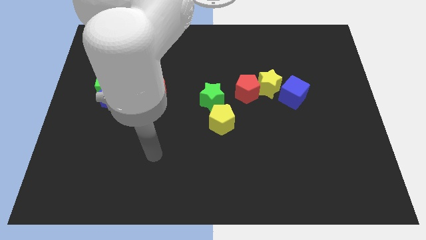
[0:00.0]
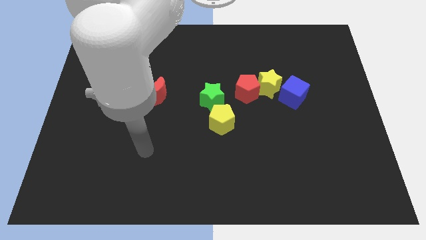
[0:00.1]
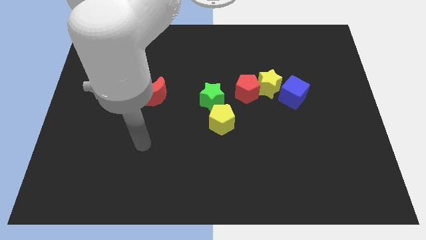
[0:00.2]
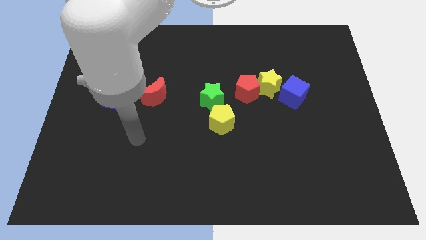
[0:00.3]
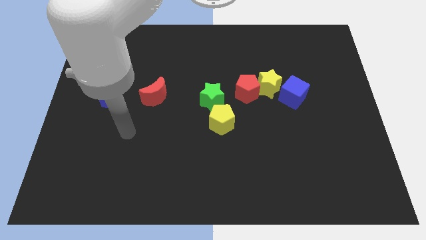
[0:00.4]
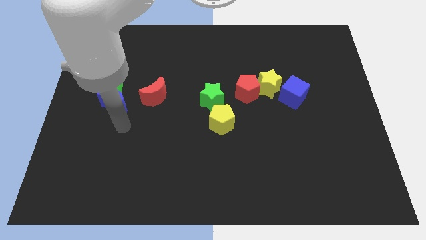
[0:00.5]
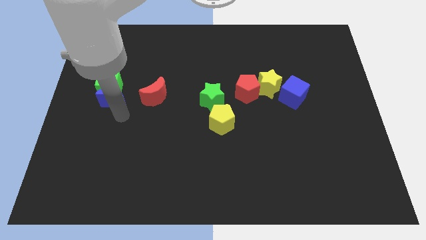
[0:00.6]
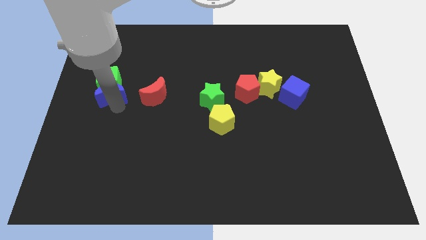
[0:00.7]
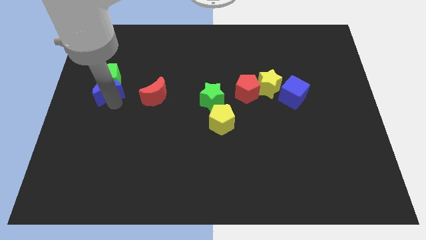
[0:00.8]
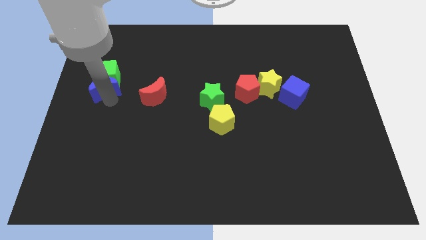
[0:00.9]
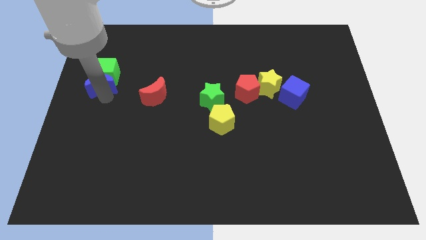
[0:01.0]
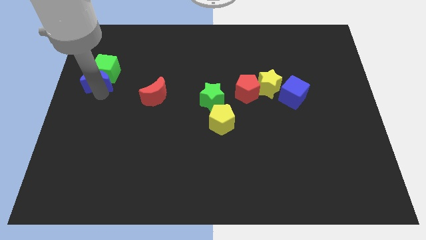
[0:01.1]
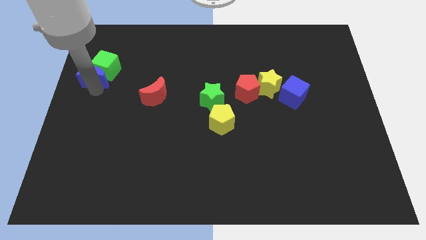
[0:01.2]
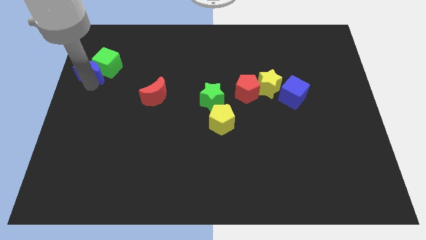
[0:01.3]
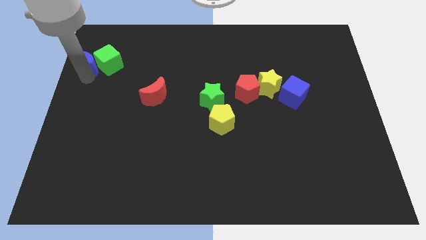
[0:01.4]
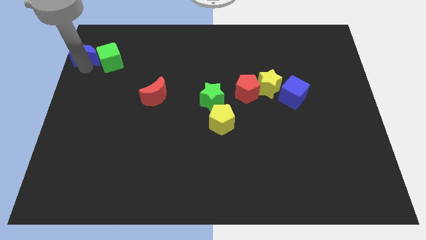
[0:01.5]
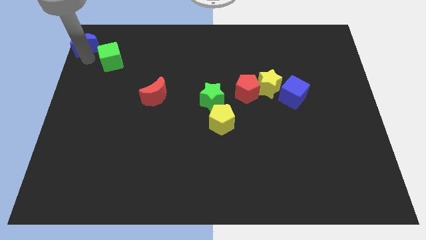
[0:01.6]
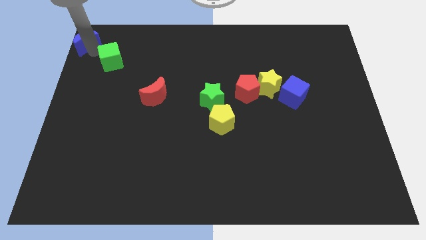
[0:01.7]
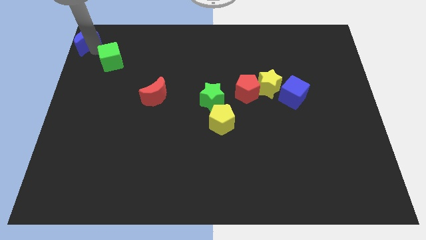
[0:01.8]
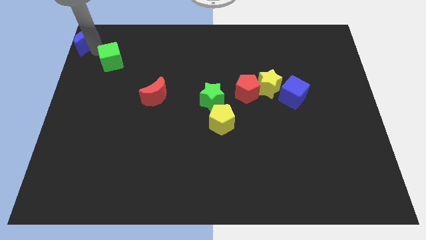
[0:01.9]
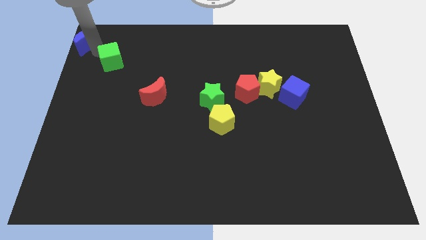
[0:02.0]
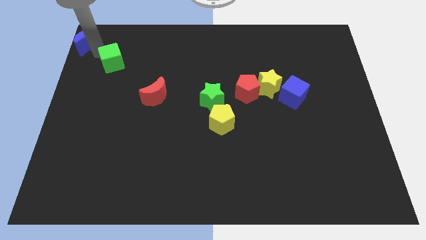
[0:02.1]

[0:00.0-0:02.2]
move the green cube away from the blue moon

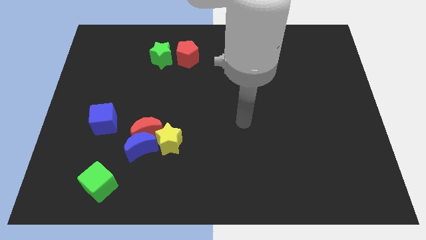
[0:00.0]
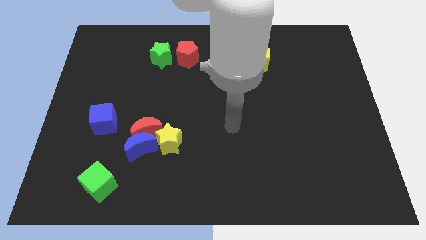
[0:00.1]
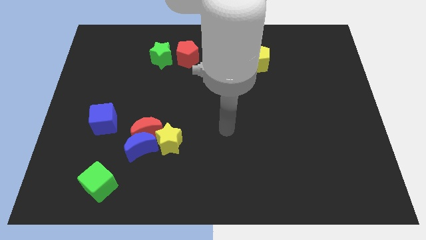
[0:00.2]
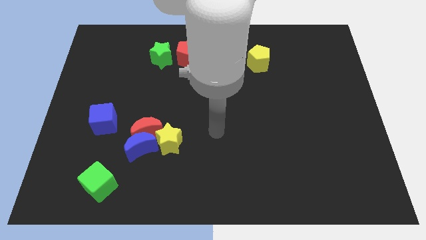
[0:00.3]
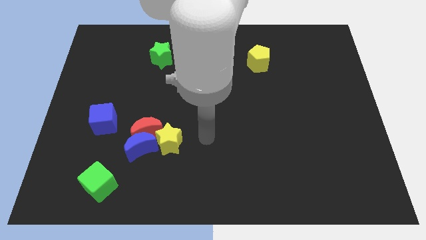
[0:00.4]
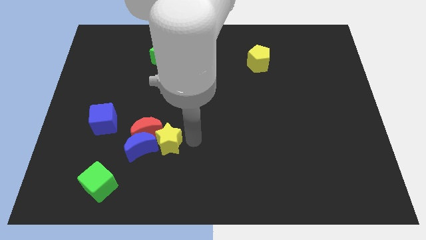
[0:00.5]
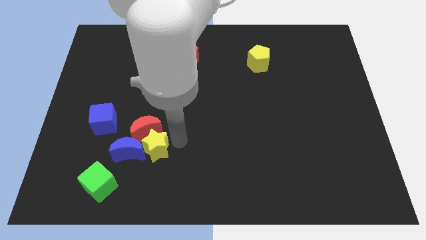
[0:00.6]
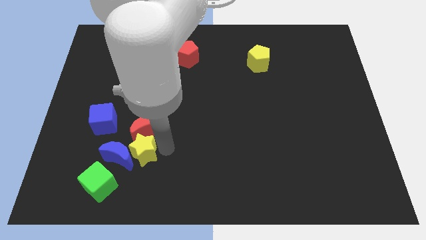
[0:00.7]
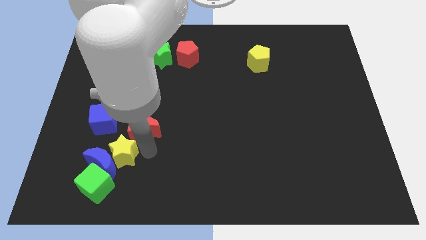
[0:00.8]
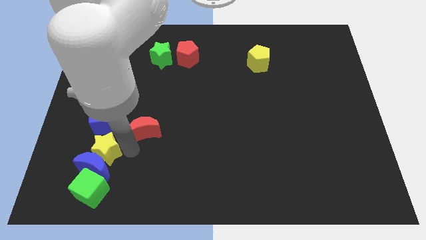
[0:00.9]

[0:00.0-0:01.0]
pull the red moon apart from the blue moon and yellow star

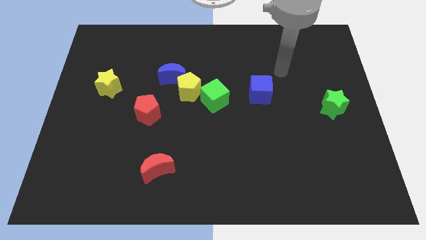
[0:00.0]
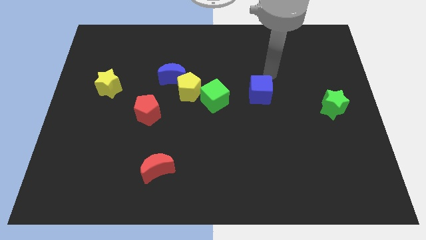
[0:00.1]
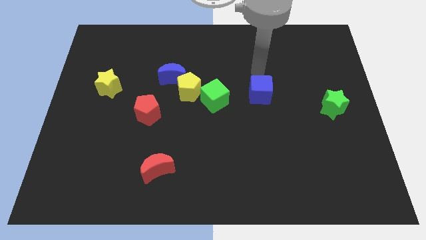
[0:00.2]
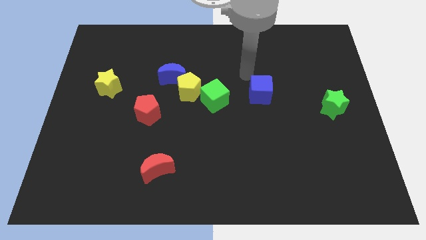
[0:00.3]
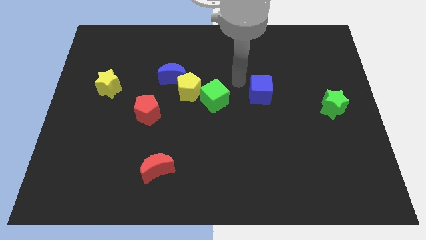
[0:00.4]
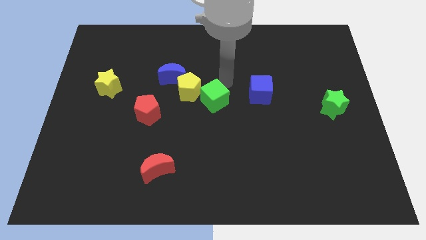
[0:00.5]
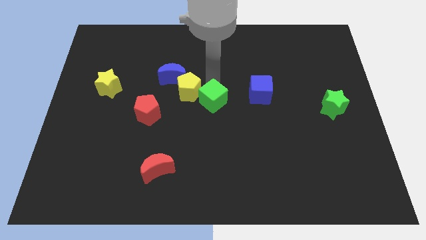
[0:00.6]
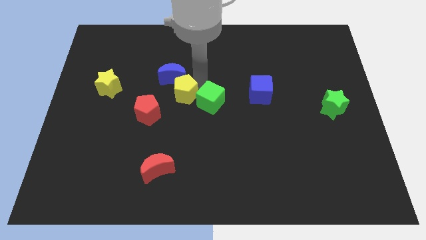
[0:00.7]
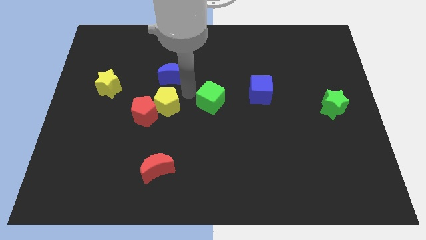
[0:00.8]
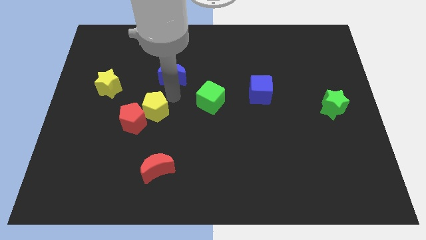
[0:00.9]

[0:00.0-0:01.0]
move the blue moon away from the yellow pentagon

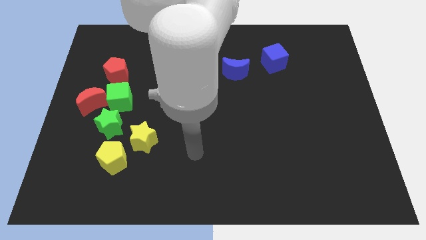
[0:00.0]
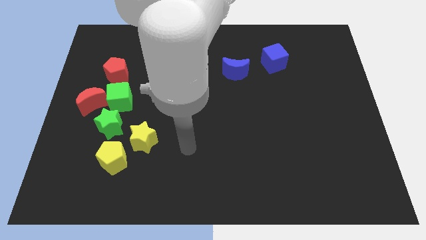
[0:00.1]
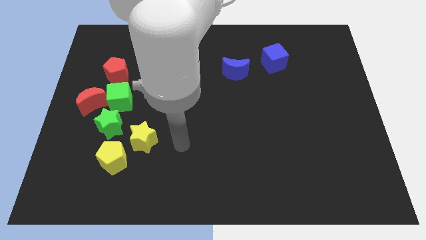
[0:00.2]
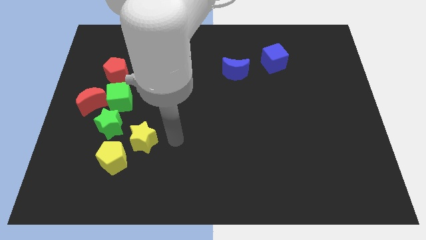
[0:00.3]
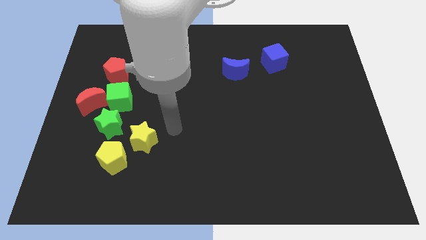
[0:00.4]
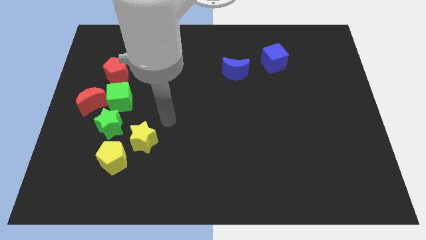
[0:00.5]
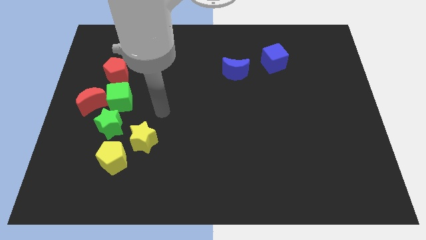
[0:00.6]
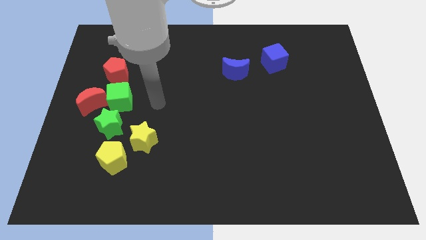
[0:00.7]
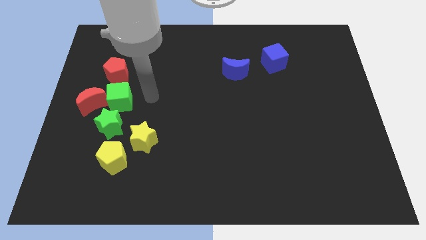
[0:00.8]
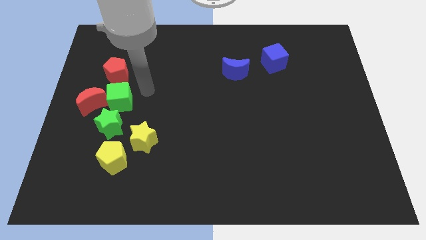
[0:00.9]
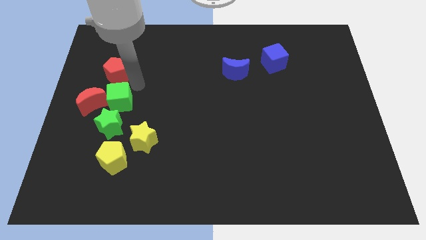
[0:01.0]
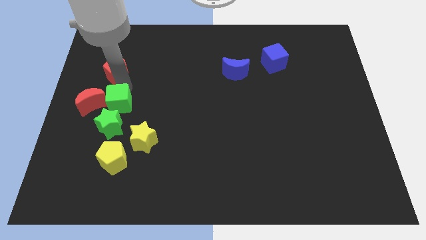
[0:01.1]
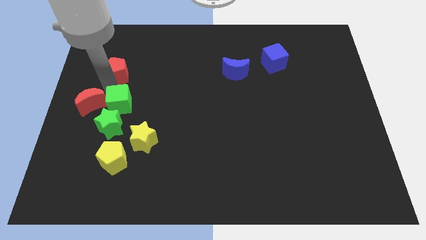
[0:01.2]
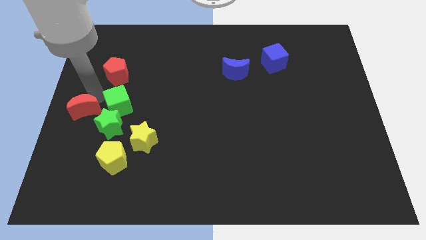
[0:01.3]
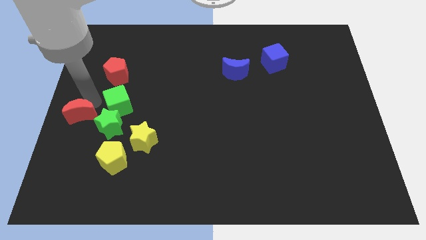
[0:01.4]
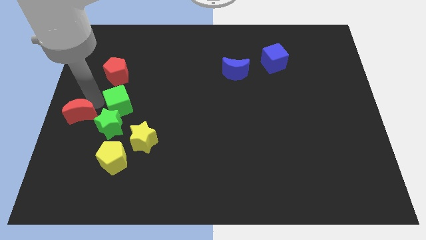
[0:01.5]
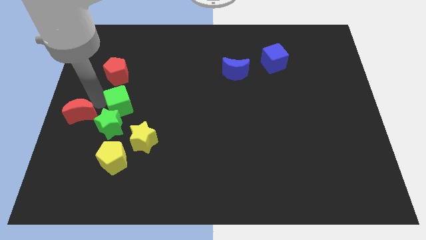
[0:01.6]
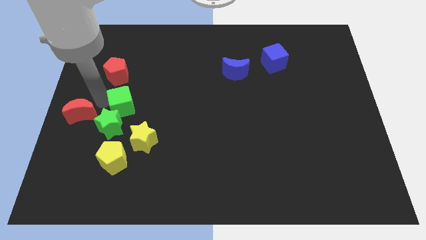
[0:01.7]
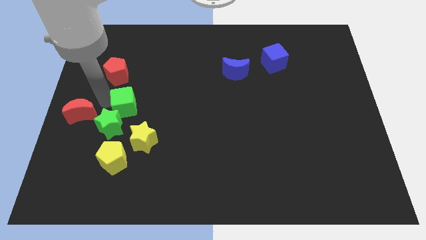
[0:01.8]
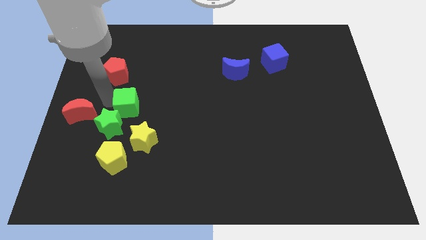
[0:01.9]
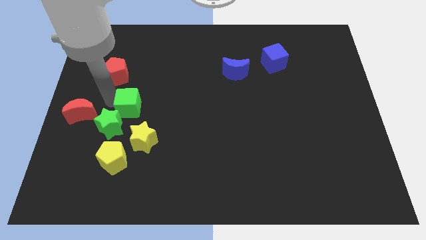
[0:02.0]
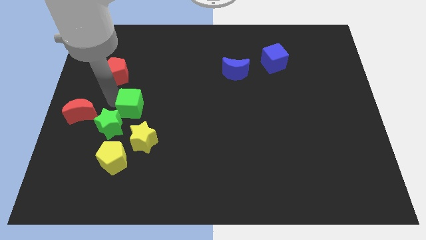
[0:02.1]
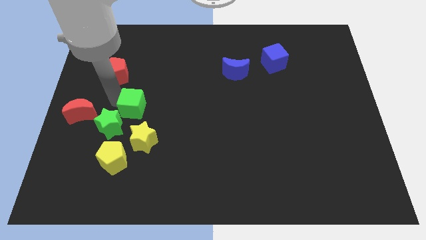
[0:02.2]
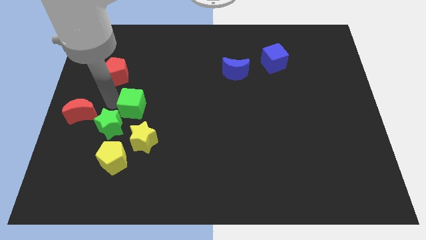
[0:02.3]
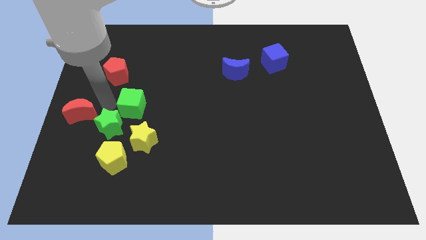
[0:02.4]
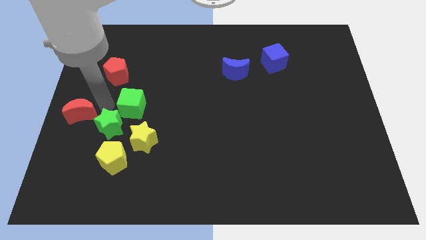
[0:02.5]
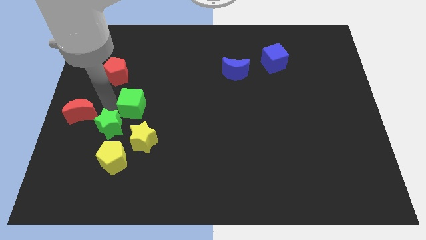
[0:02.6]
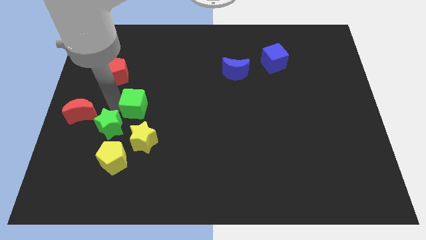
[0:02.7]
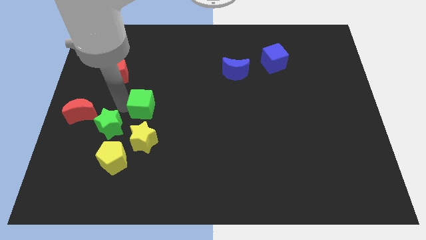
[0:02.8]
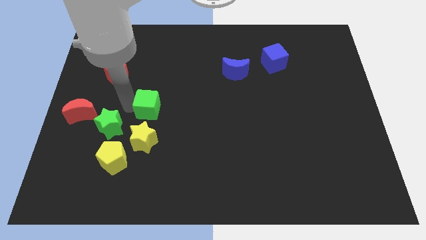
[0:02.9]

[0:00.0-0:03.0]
separate the green cube from the clump

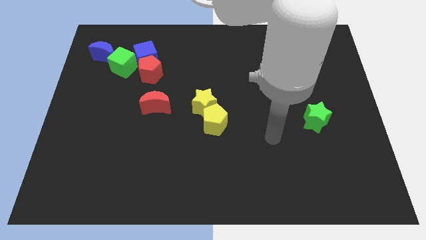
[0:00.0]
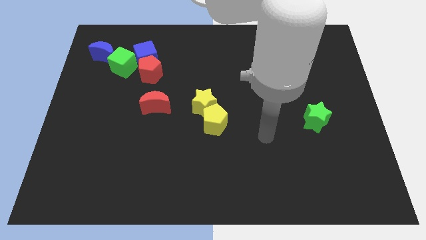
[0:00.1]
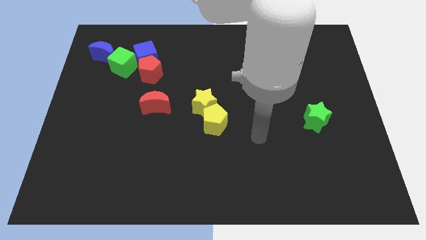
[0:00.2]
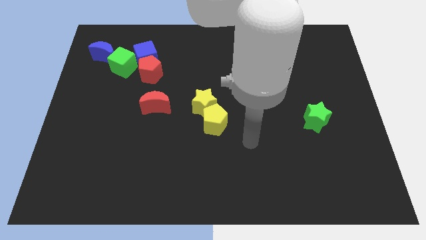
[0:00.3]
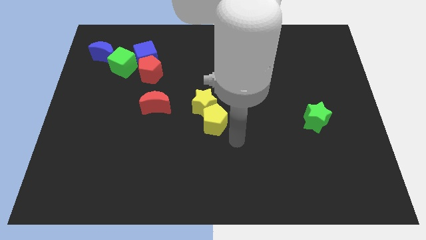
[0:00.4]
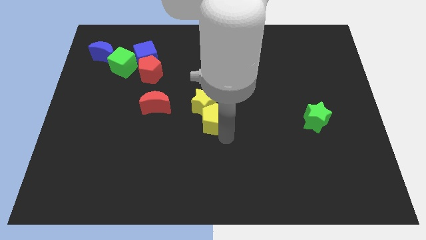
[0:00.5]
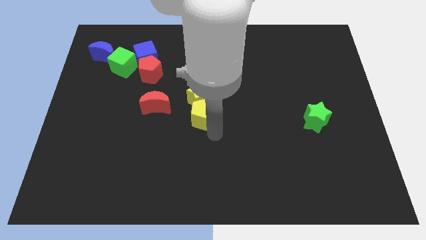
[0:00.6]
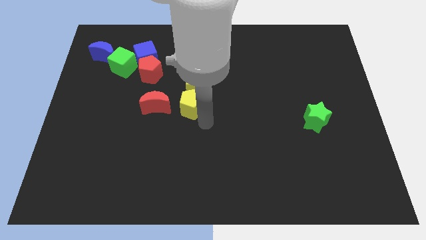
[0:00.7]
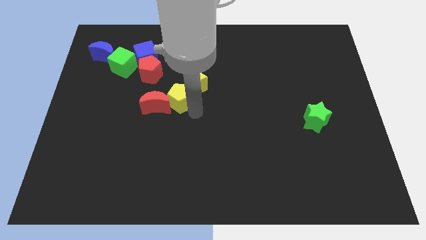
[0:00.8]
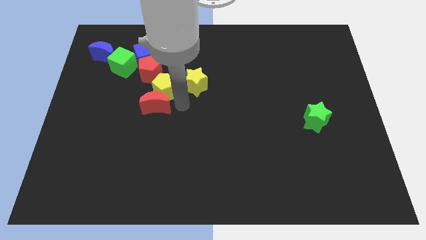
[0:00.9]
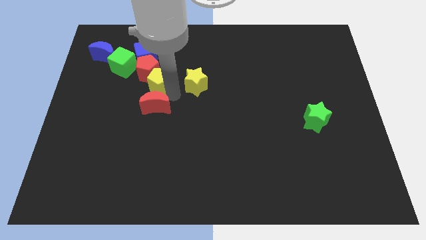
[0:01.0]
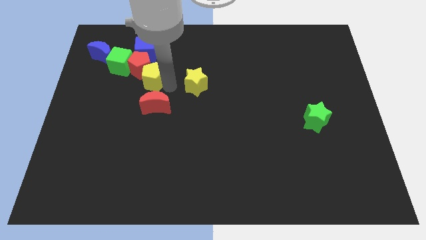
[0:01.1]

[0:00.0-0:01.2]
pull the yellow star apart from the yellow pentagon

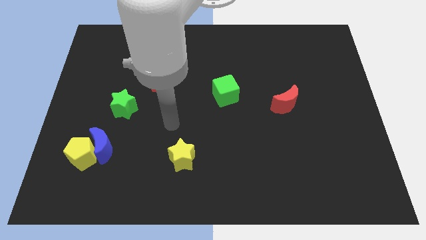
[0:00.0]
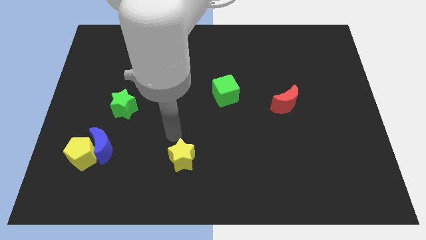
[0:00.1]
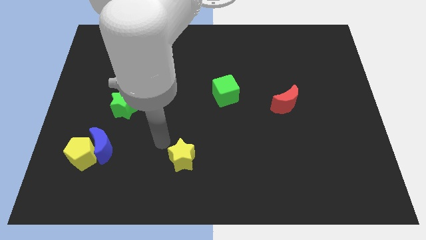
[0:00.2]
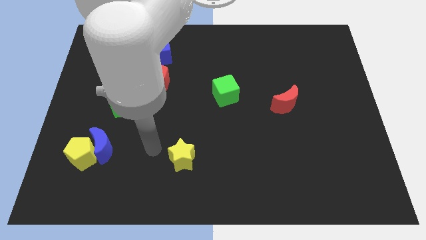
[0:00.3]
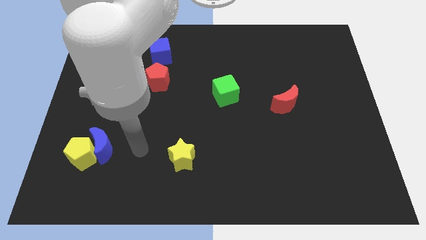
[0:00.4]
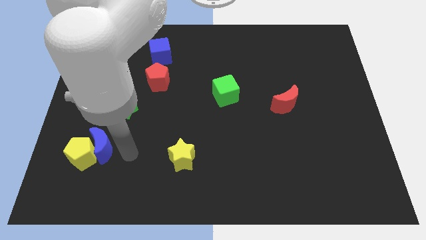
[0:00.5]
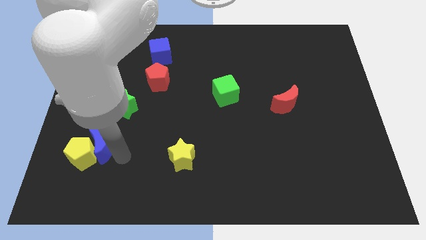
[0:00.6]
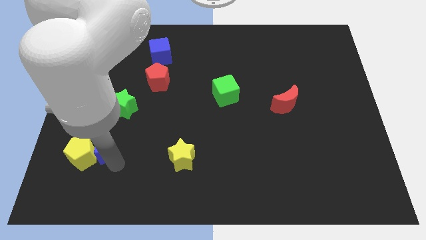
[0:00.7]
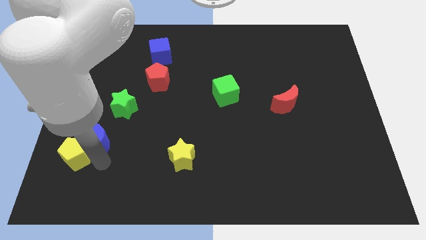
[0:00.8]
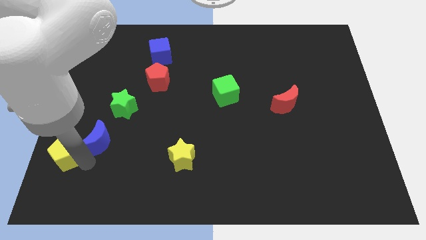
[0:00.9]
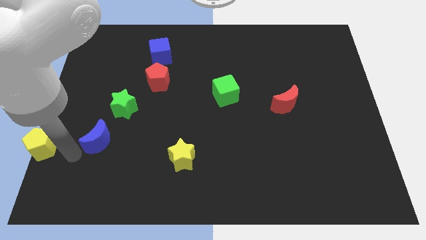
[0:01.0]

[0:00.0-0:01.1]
separate the blue moon from the yellow pentagon
